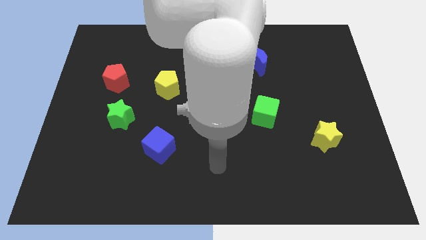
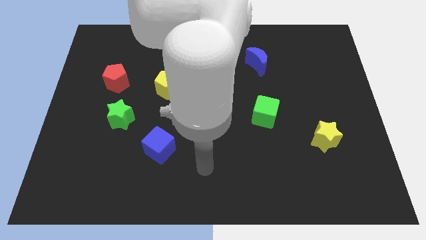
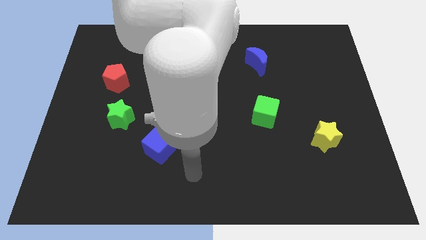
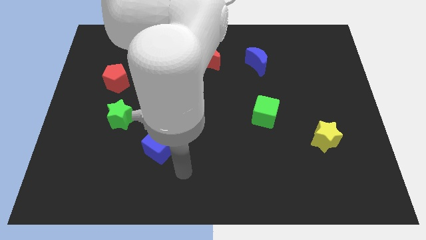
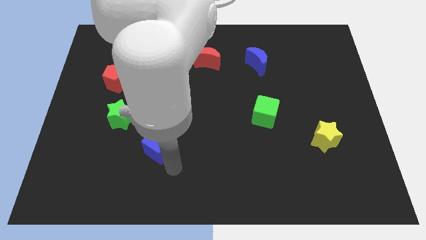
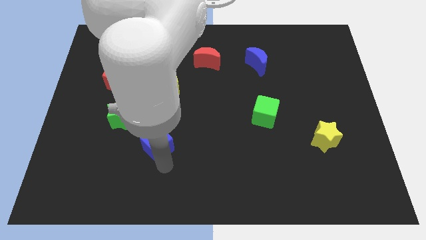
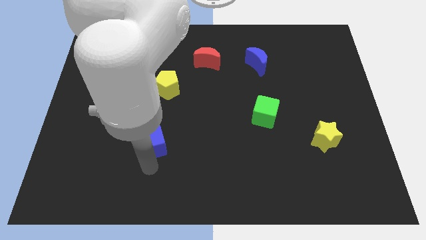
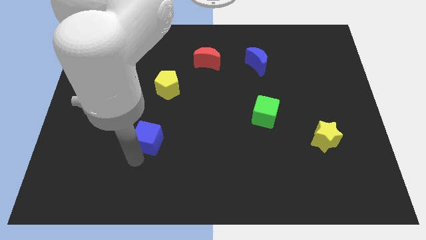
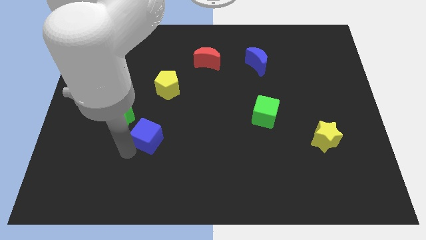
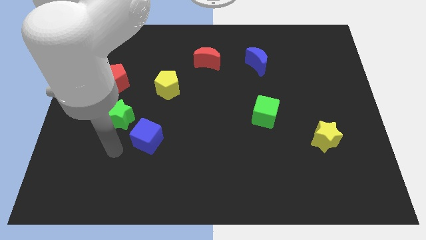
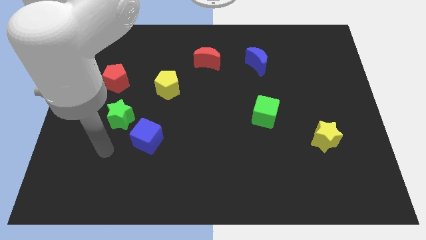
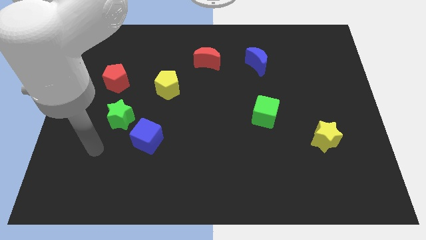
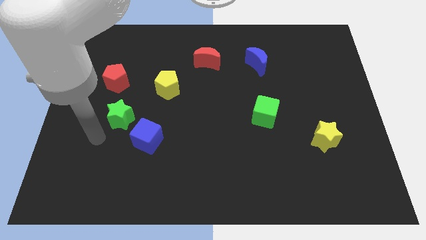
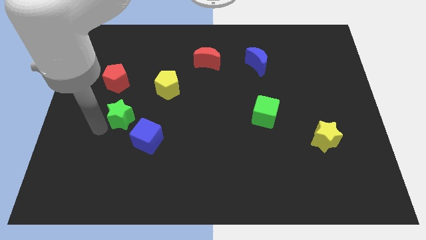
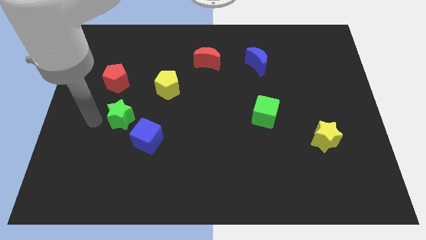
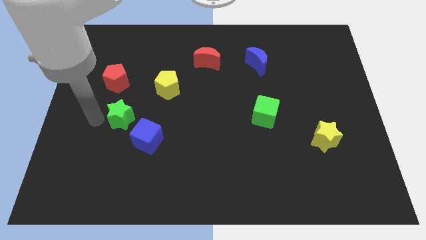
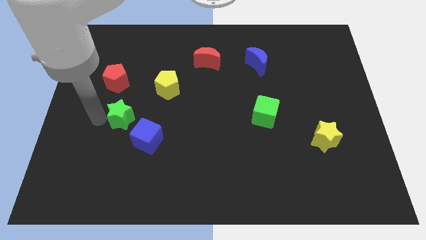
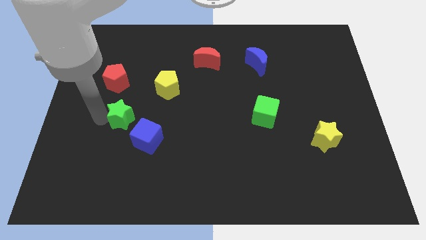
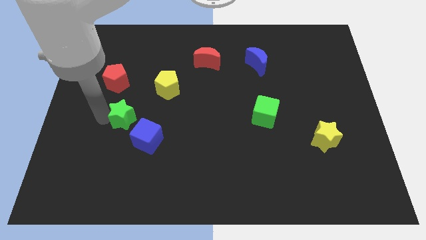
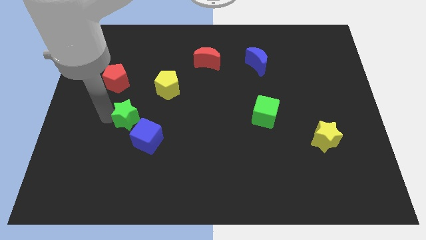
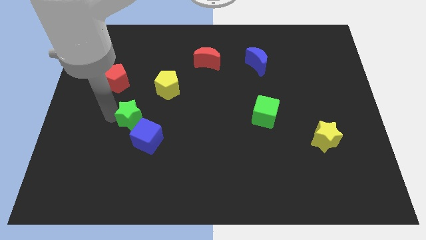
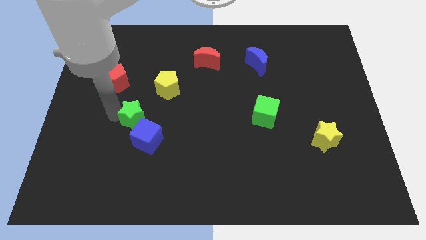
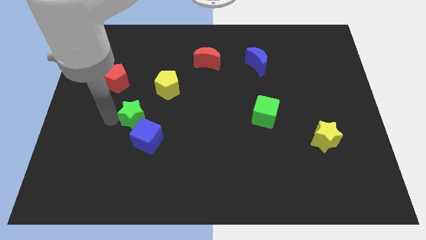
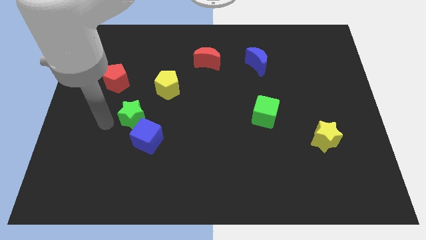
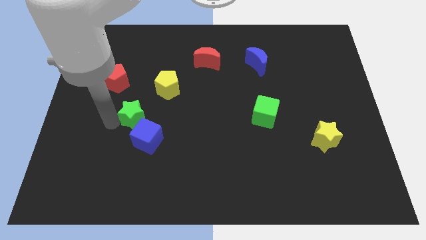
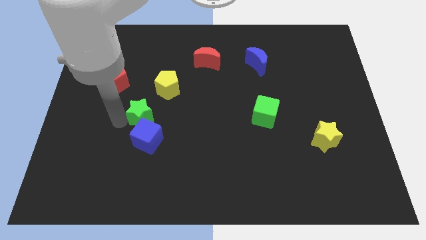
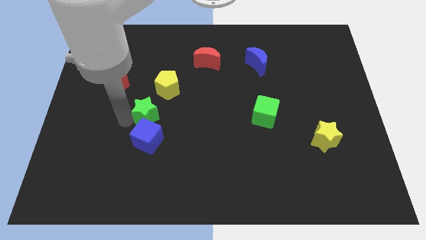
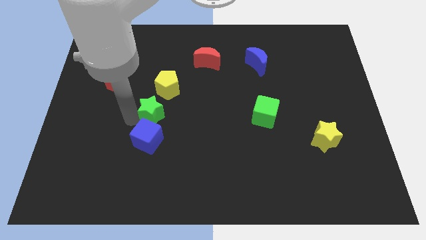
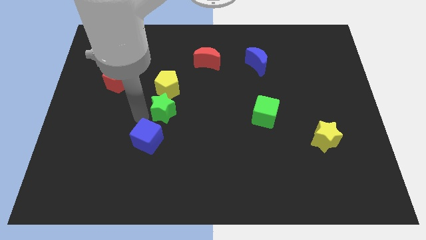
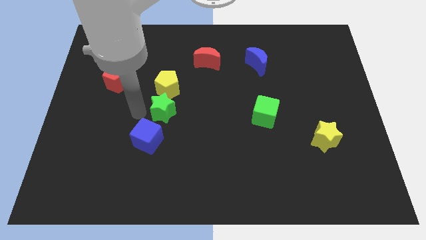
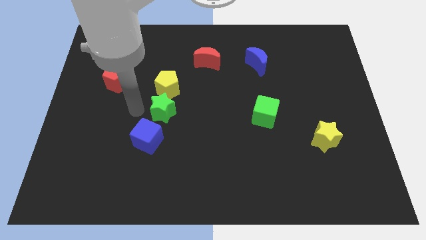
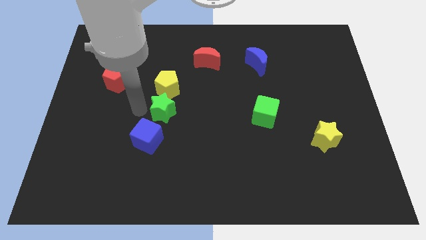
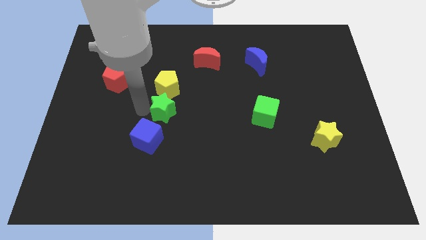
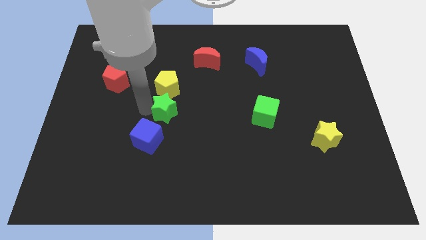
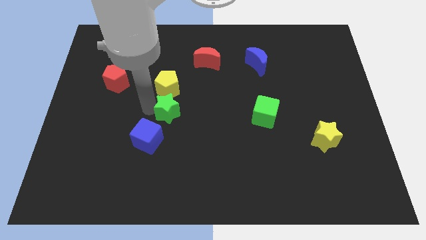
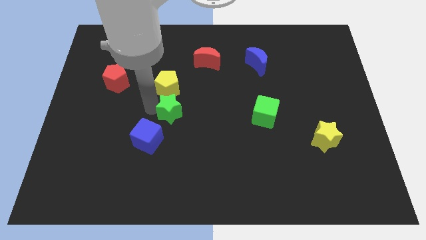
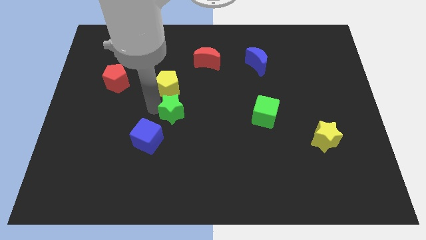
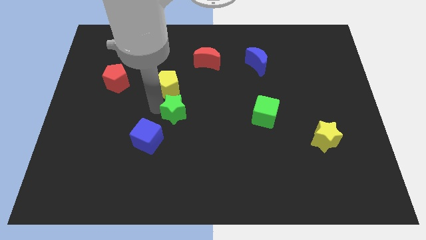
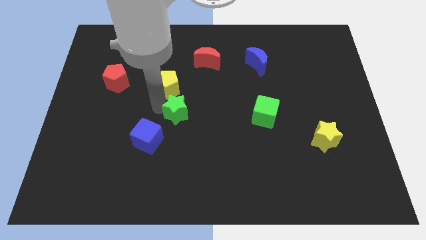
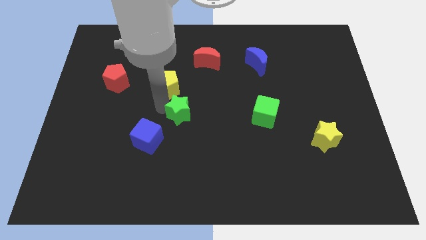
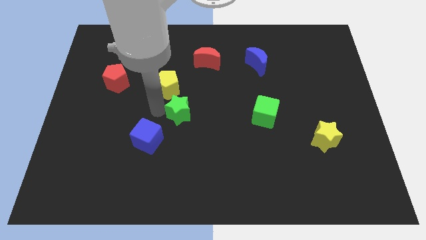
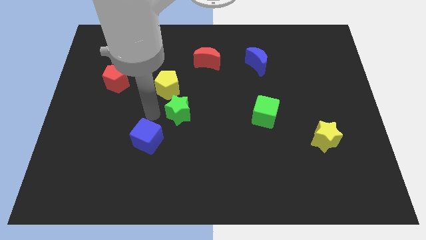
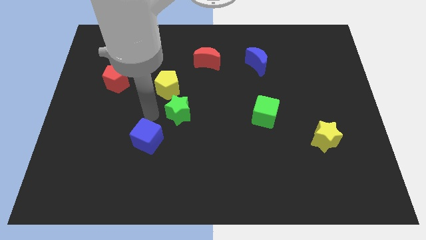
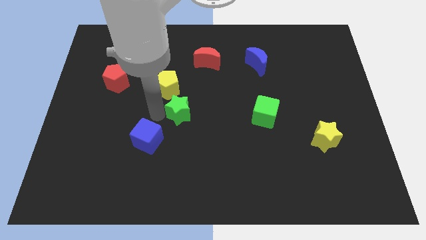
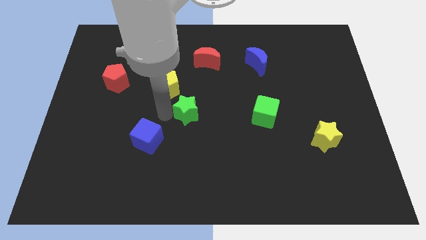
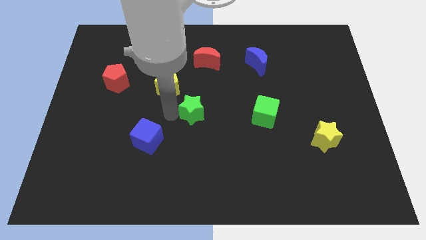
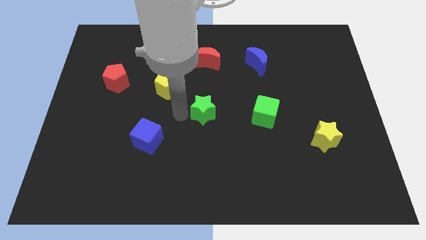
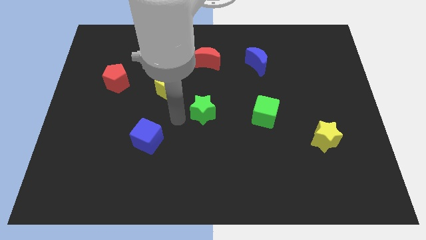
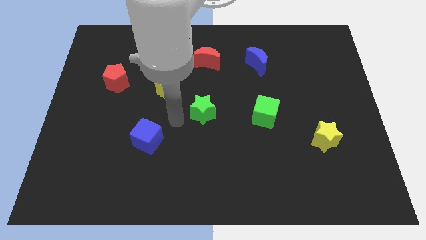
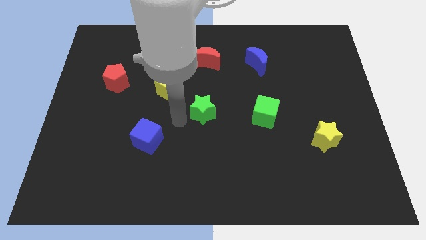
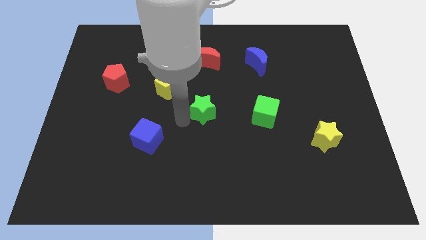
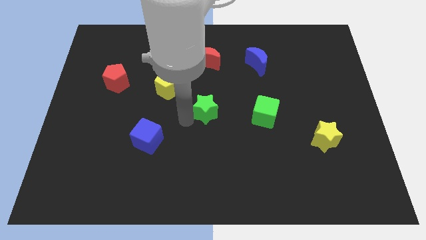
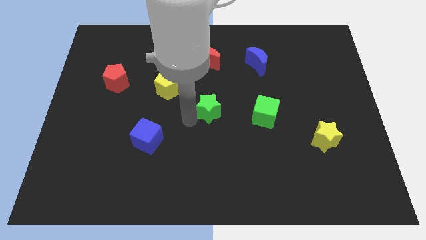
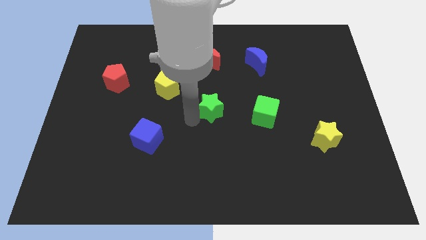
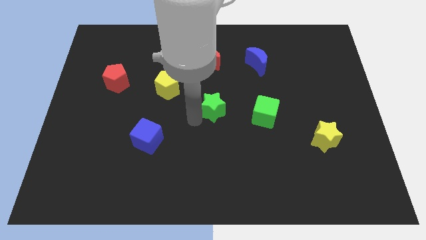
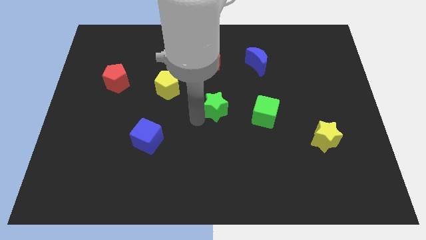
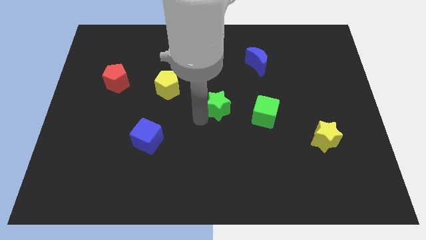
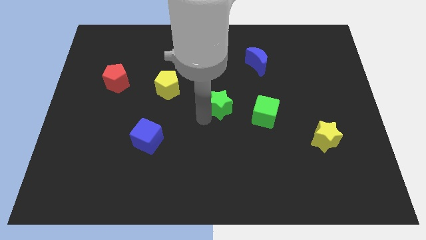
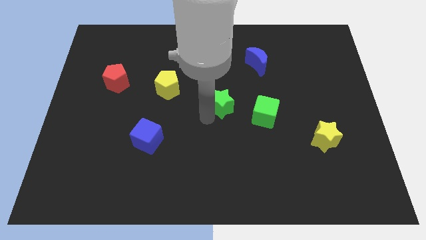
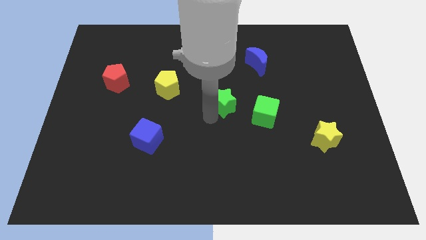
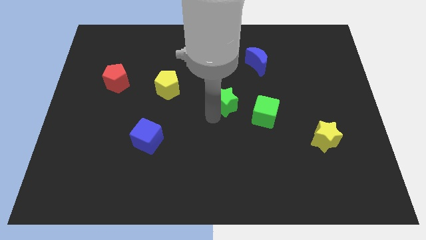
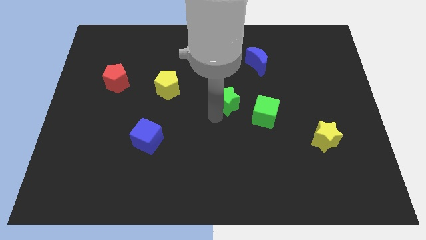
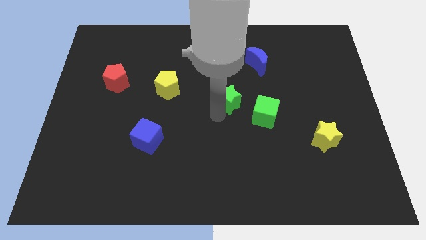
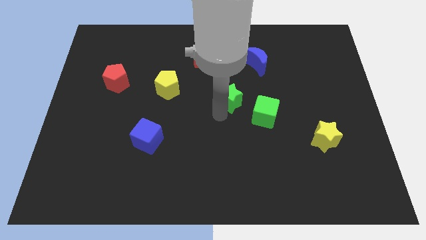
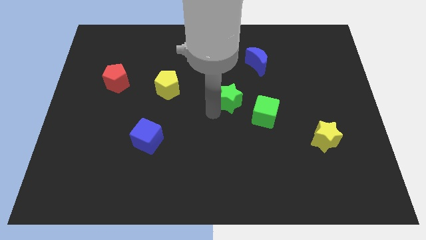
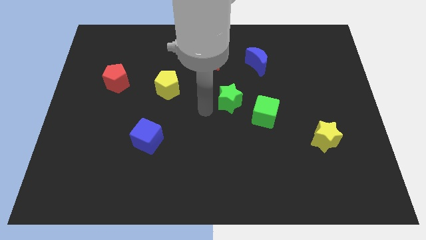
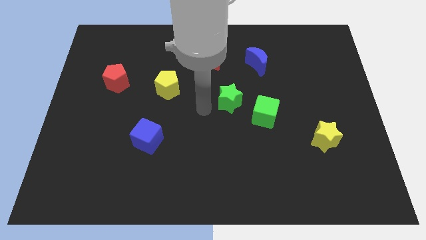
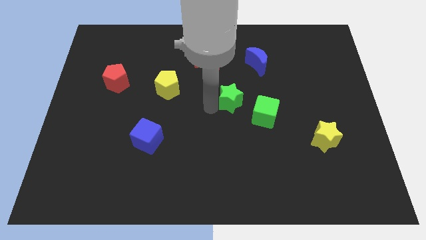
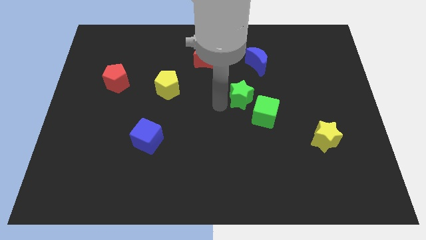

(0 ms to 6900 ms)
move the green star below the blue moon
